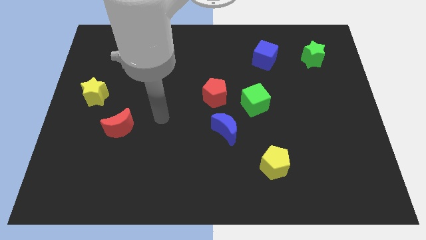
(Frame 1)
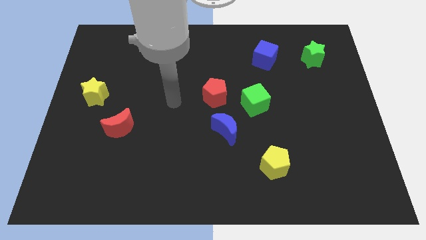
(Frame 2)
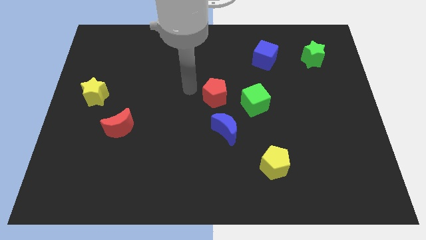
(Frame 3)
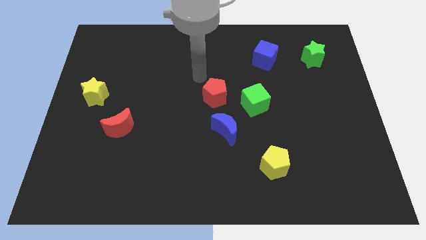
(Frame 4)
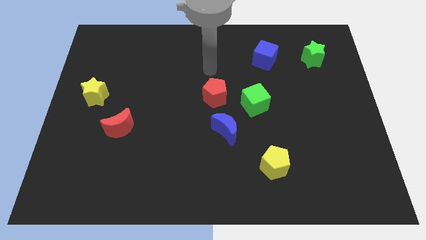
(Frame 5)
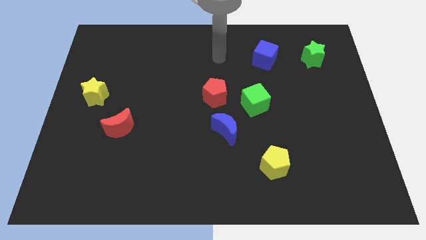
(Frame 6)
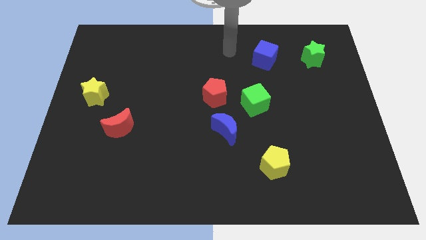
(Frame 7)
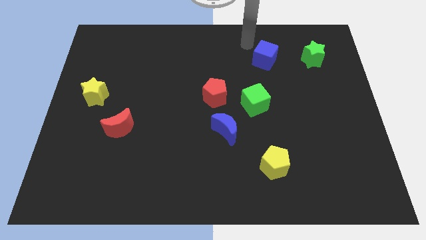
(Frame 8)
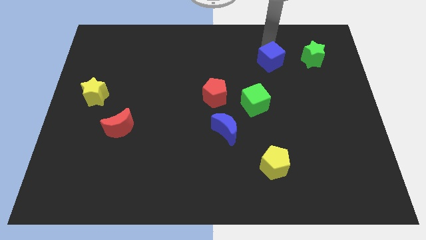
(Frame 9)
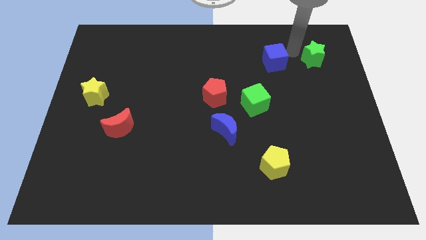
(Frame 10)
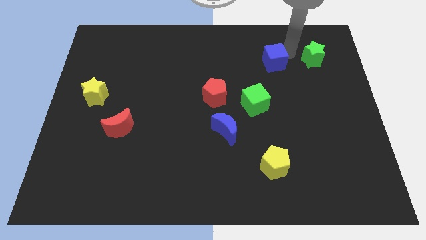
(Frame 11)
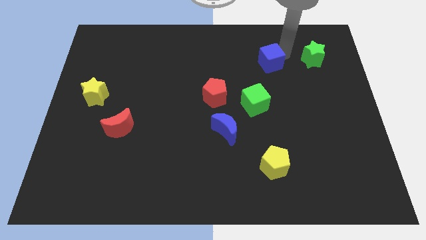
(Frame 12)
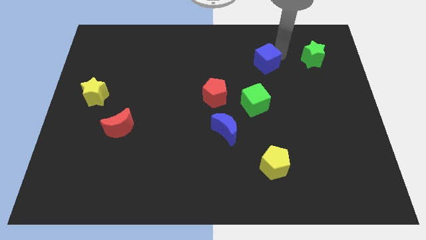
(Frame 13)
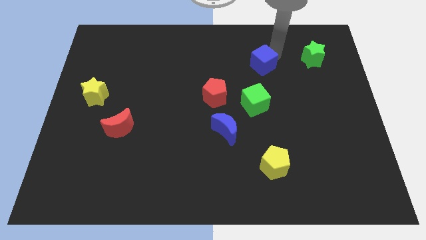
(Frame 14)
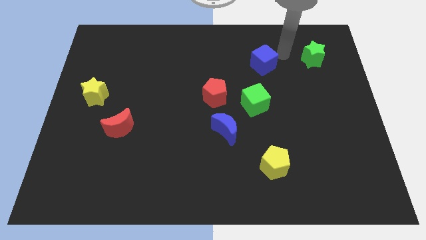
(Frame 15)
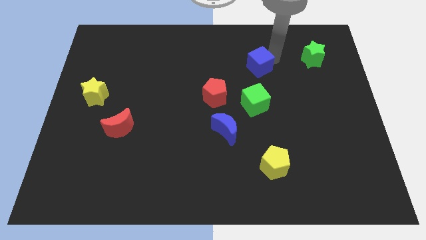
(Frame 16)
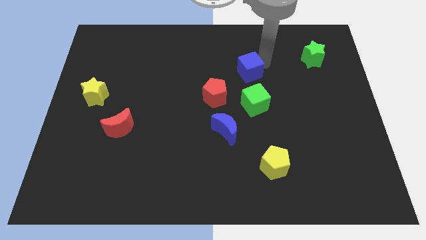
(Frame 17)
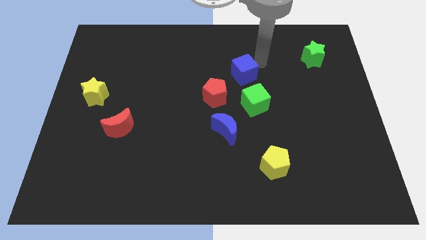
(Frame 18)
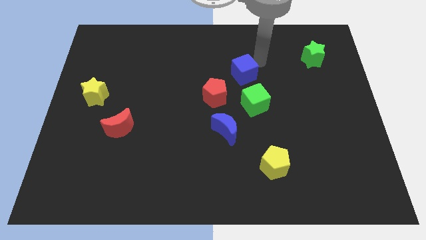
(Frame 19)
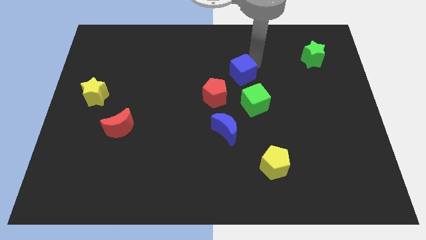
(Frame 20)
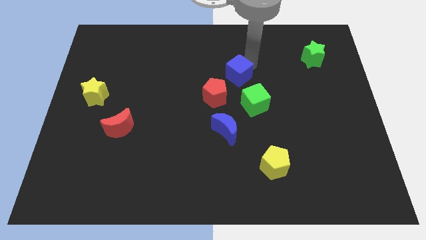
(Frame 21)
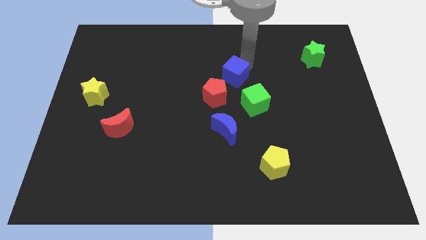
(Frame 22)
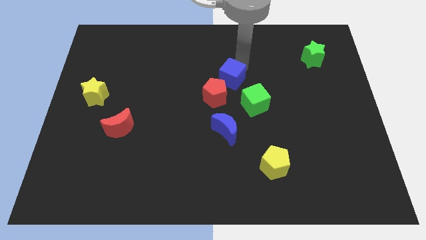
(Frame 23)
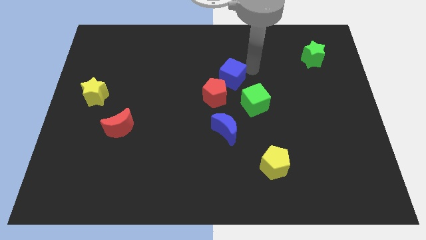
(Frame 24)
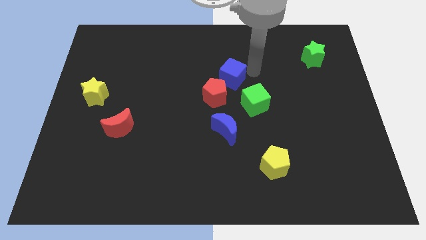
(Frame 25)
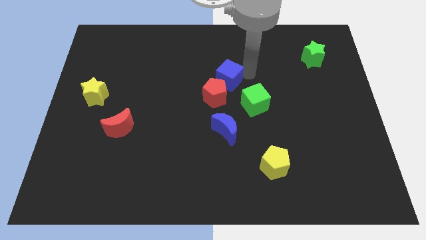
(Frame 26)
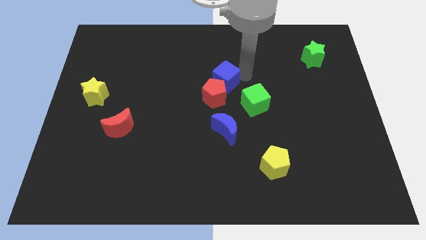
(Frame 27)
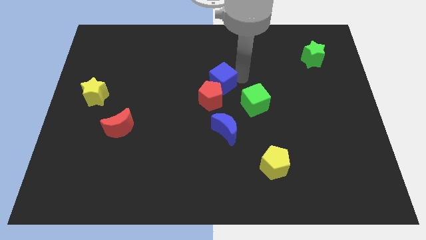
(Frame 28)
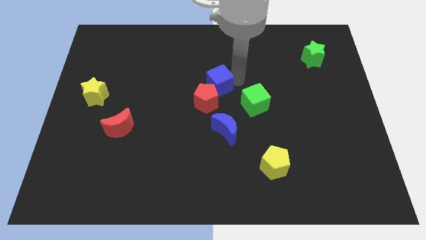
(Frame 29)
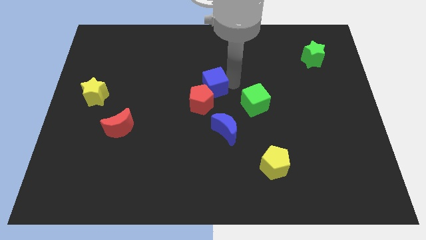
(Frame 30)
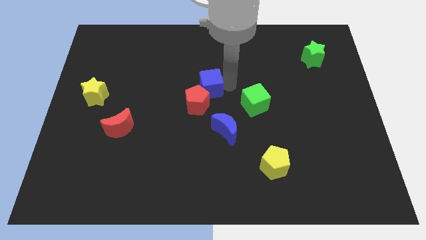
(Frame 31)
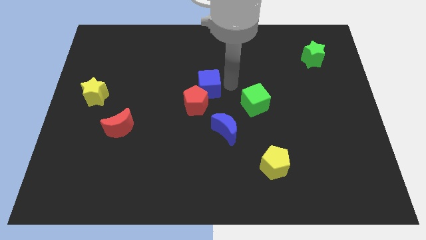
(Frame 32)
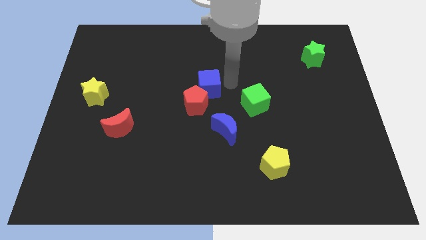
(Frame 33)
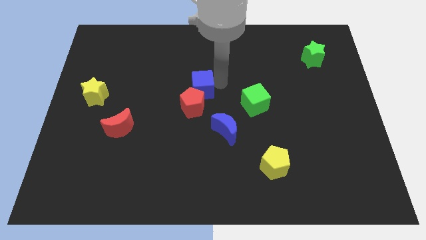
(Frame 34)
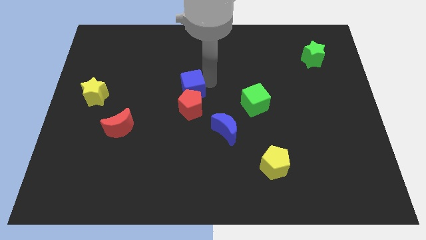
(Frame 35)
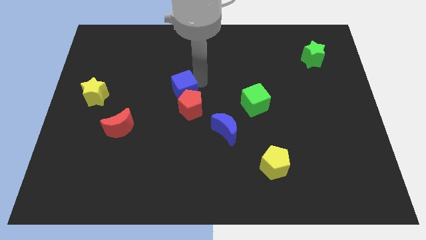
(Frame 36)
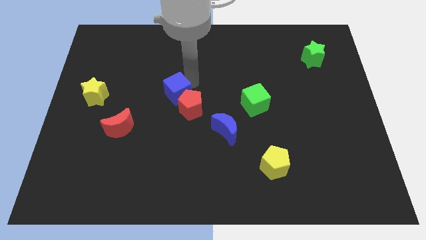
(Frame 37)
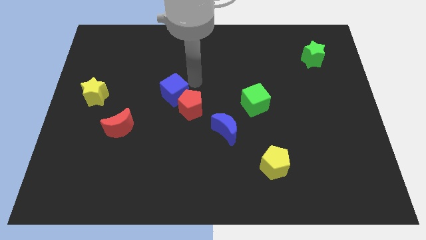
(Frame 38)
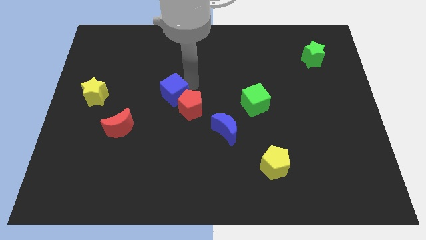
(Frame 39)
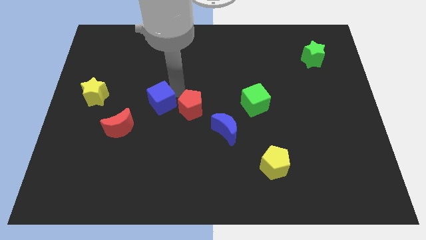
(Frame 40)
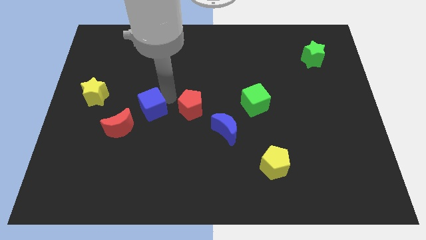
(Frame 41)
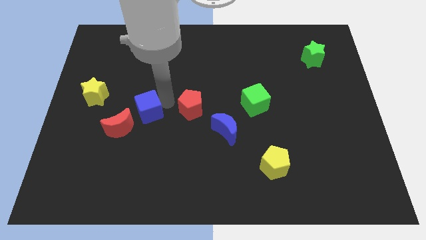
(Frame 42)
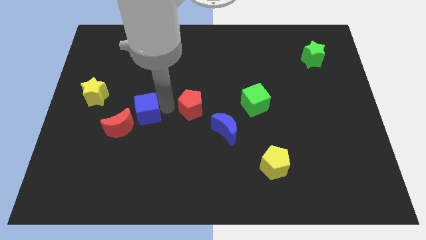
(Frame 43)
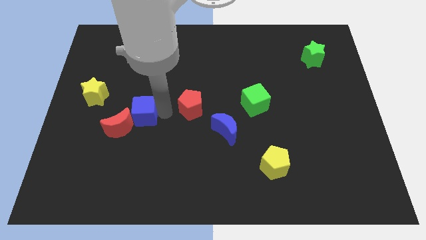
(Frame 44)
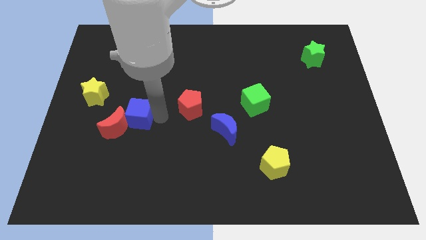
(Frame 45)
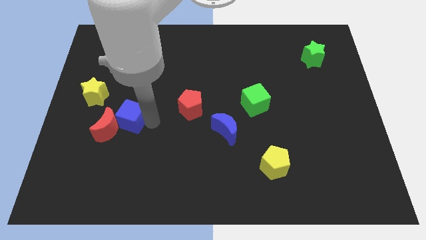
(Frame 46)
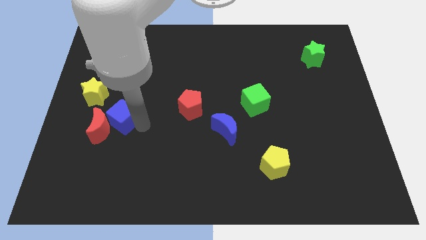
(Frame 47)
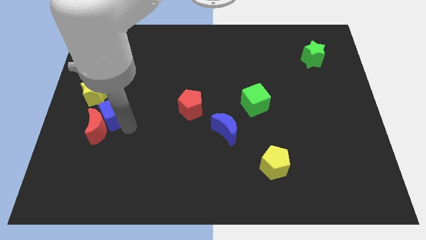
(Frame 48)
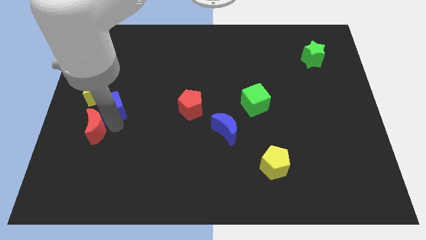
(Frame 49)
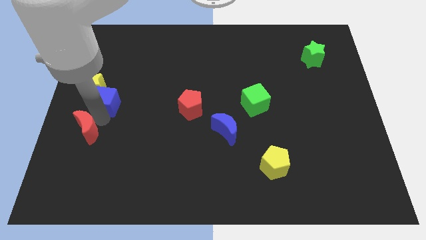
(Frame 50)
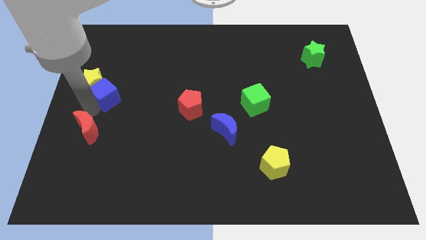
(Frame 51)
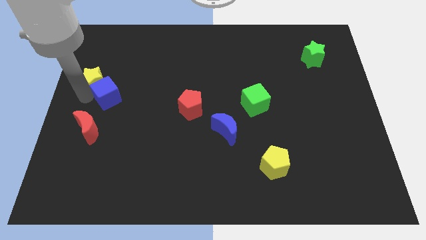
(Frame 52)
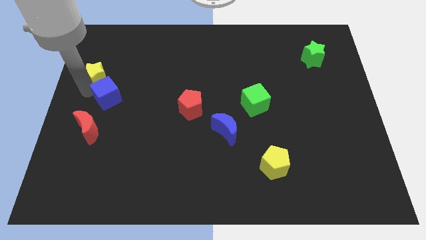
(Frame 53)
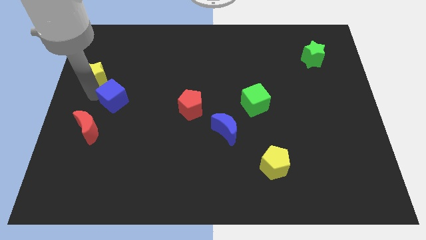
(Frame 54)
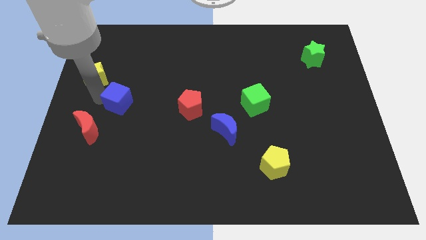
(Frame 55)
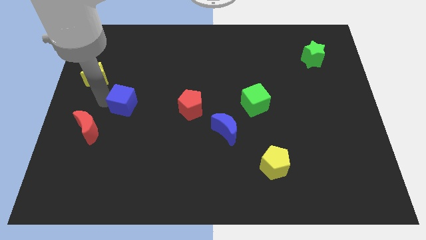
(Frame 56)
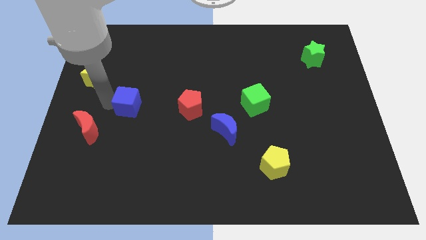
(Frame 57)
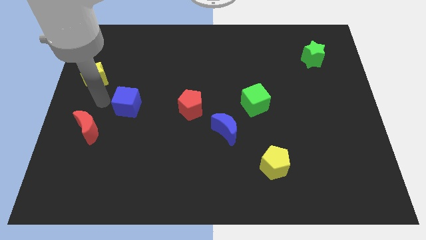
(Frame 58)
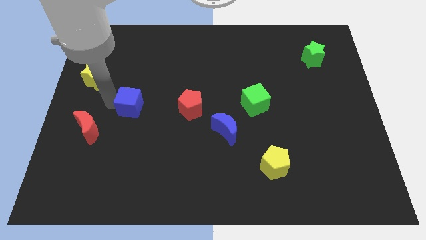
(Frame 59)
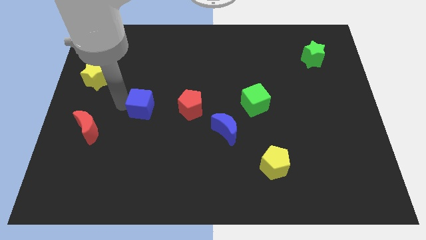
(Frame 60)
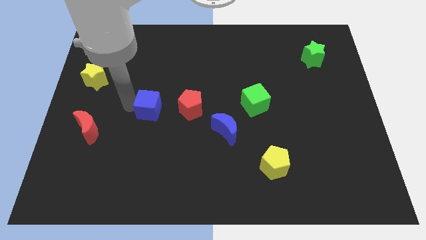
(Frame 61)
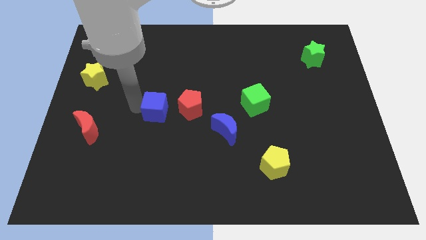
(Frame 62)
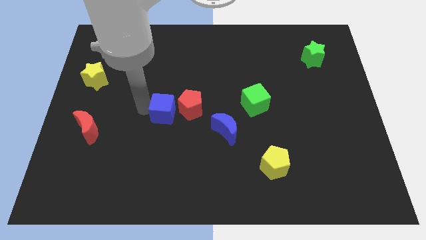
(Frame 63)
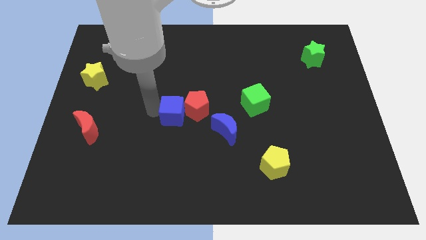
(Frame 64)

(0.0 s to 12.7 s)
move the blue cube to the left side of the red pentagon

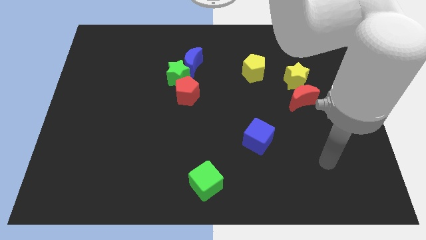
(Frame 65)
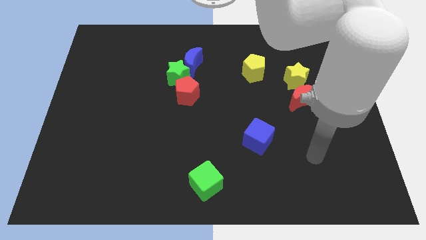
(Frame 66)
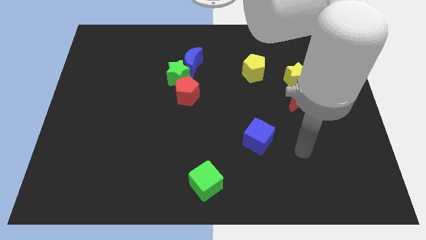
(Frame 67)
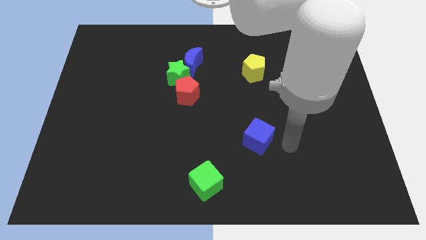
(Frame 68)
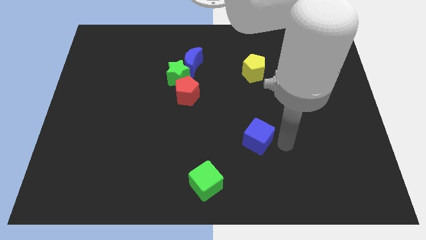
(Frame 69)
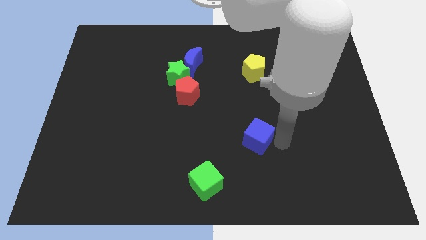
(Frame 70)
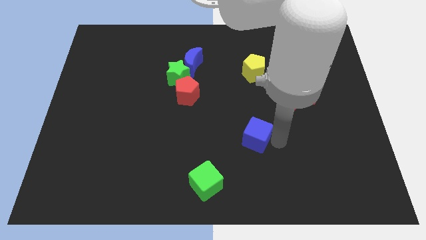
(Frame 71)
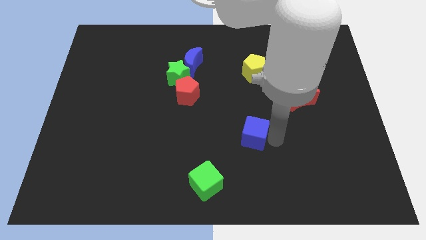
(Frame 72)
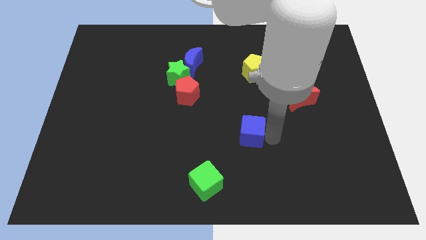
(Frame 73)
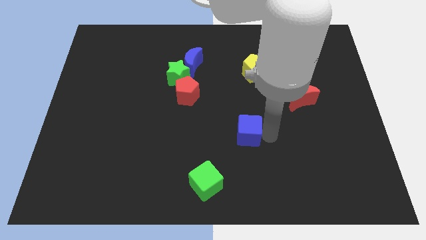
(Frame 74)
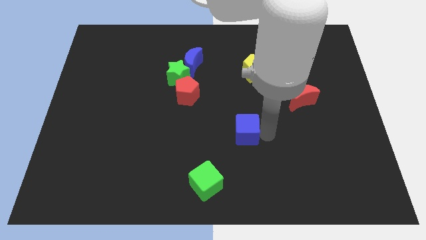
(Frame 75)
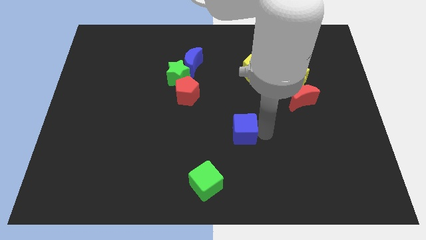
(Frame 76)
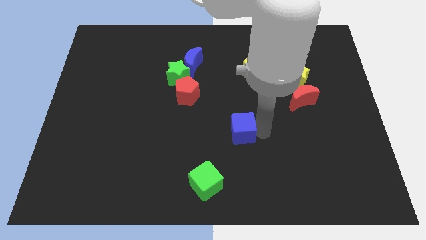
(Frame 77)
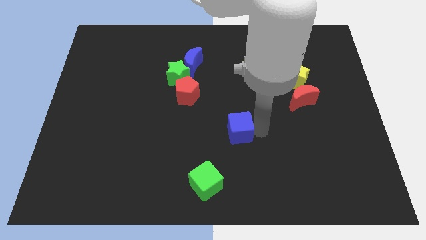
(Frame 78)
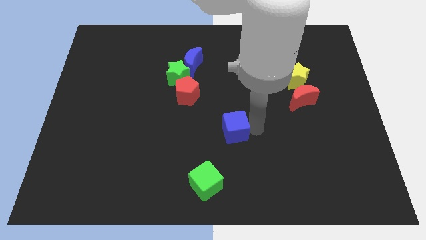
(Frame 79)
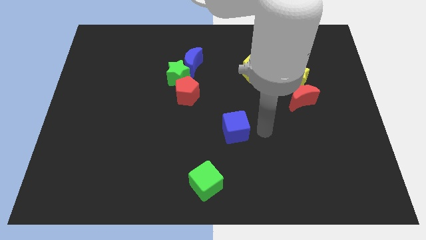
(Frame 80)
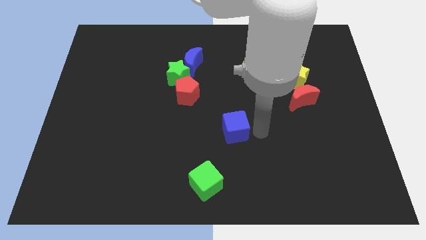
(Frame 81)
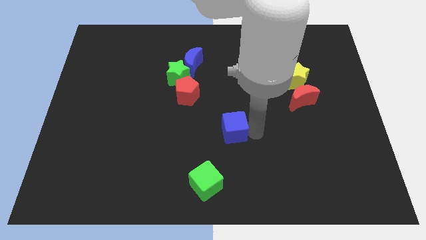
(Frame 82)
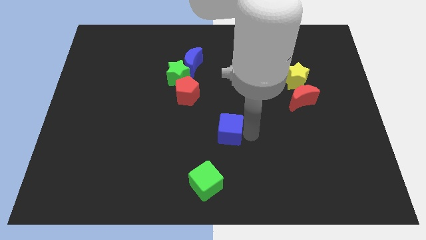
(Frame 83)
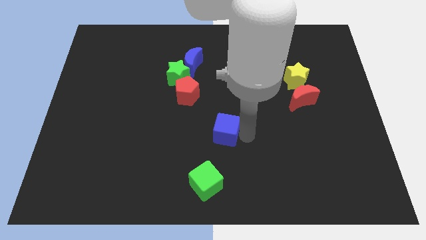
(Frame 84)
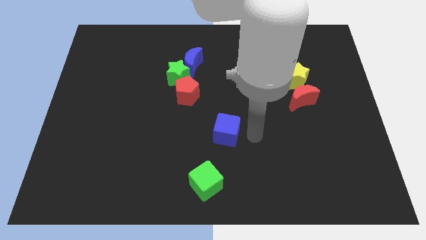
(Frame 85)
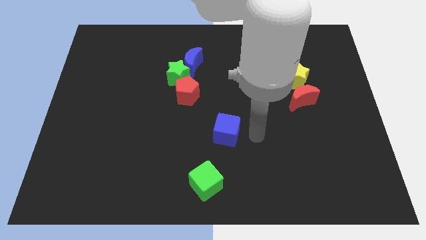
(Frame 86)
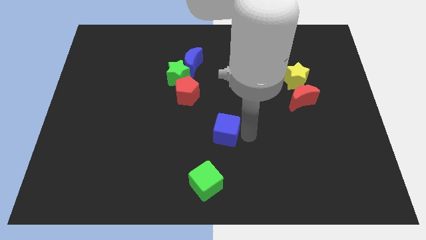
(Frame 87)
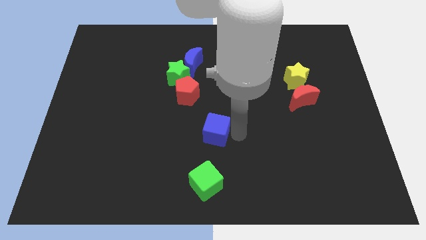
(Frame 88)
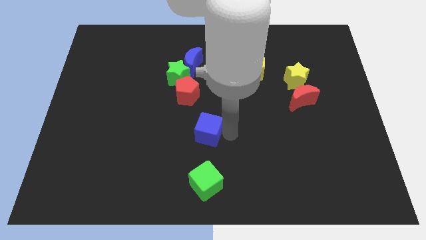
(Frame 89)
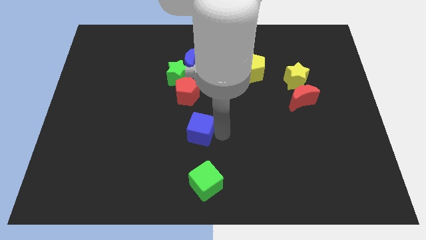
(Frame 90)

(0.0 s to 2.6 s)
push the blue cube to the bottom of the red pentagon
